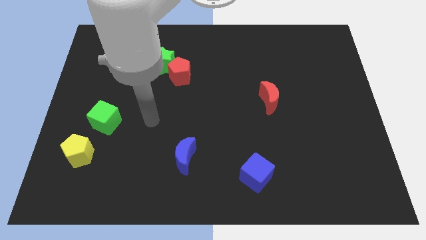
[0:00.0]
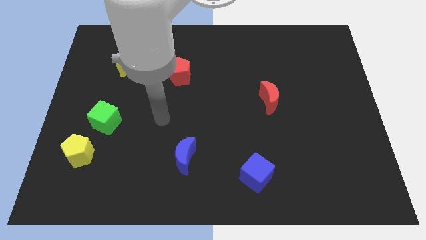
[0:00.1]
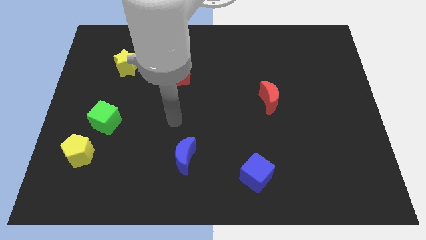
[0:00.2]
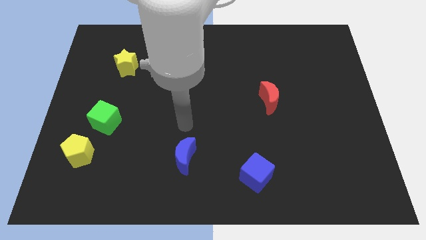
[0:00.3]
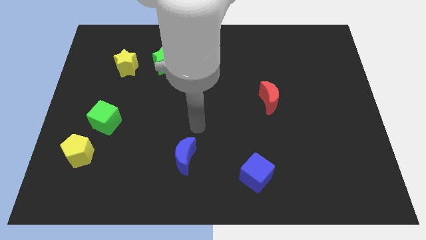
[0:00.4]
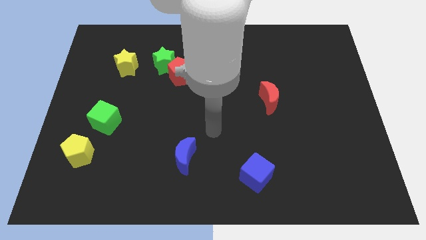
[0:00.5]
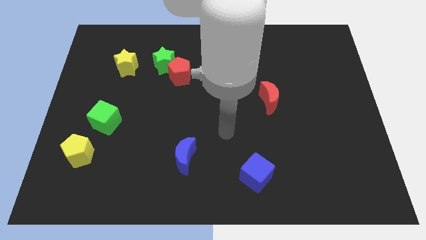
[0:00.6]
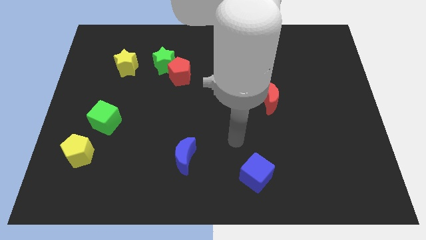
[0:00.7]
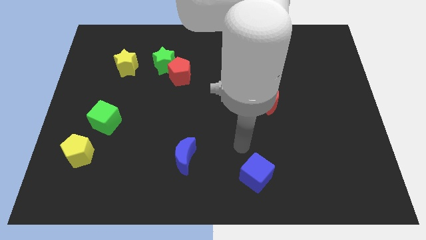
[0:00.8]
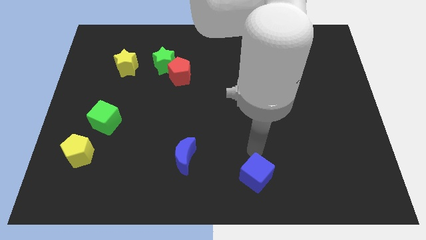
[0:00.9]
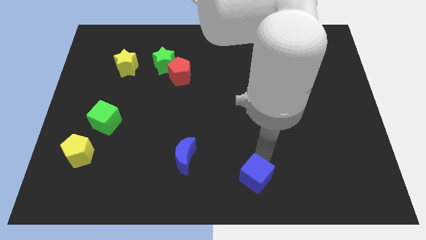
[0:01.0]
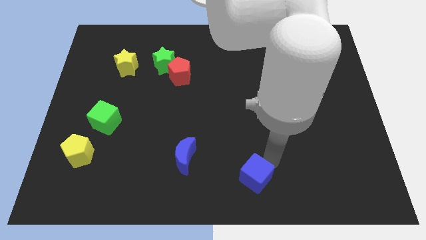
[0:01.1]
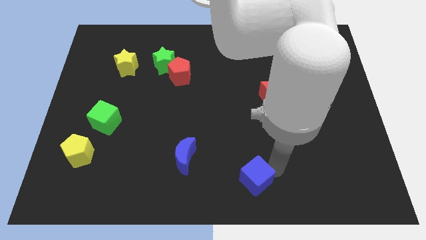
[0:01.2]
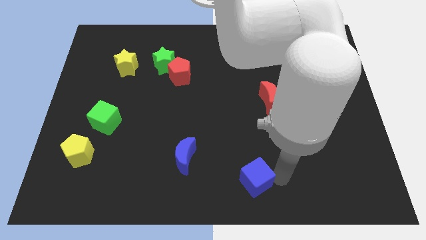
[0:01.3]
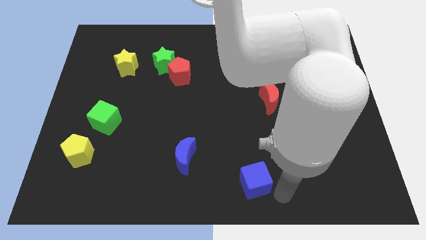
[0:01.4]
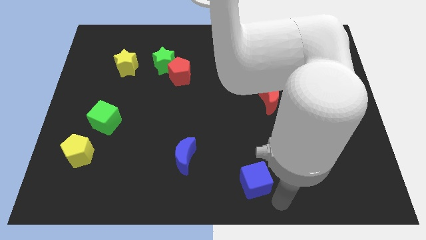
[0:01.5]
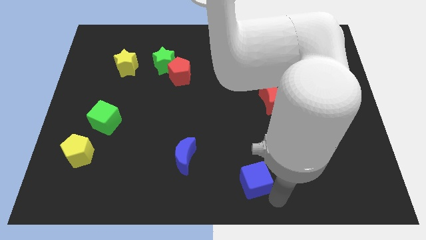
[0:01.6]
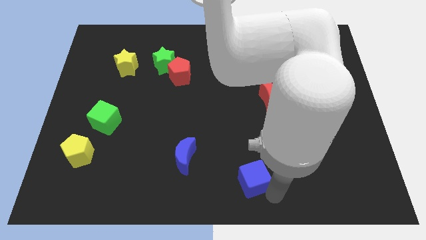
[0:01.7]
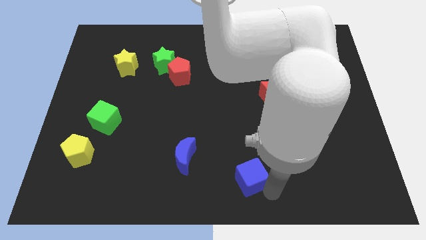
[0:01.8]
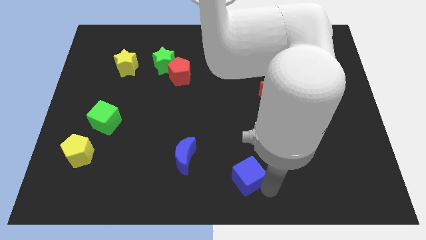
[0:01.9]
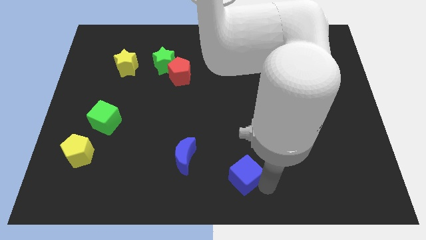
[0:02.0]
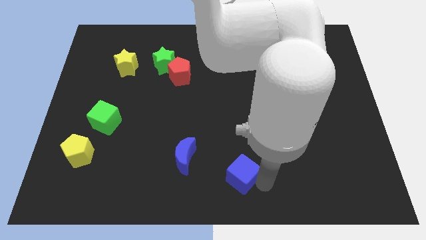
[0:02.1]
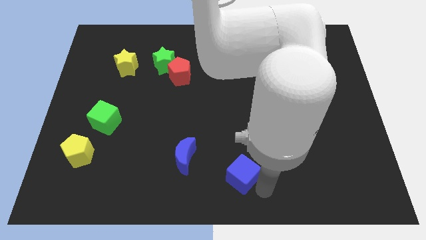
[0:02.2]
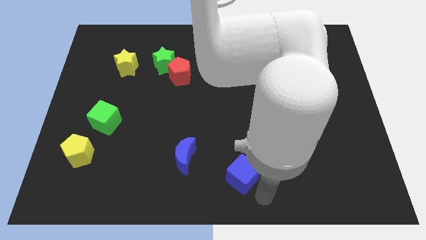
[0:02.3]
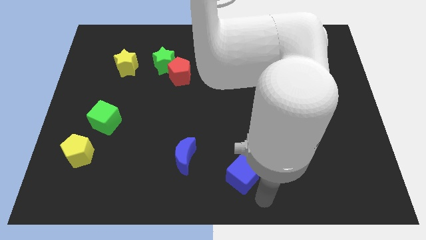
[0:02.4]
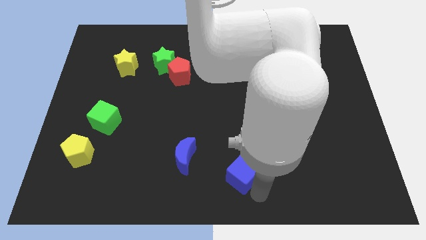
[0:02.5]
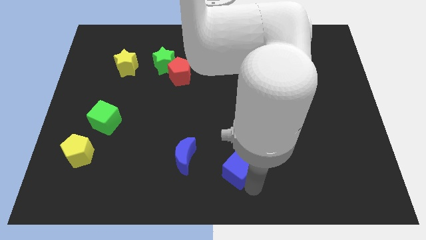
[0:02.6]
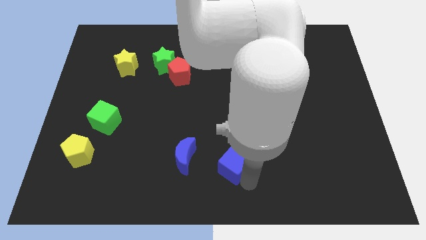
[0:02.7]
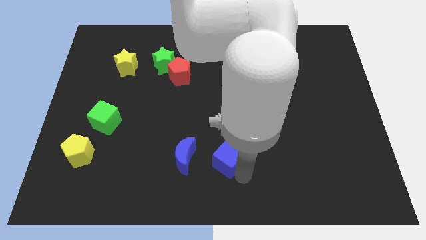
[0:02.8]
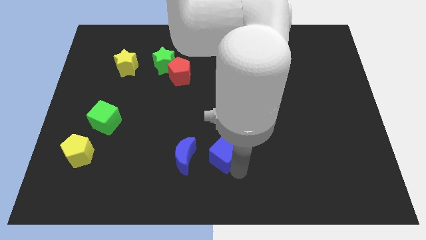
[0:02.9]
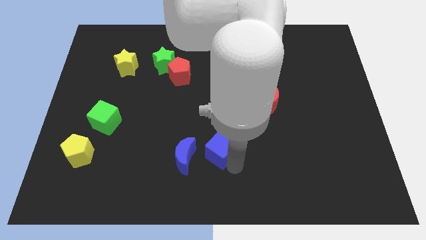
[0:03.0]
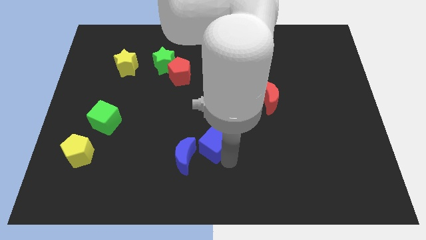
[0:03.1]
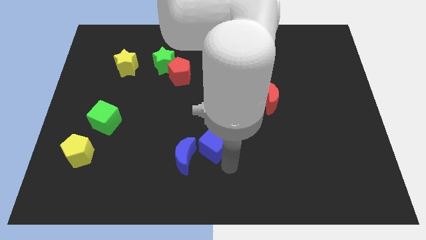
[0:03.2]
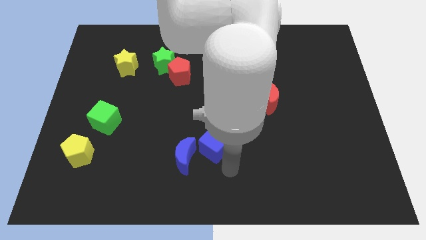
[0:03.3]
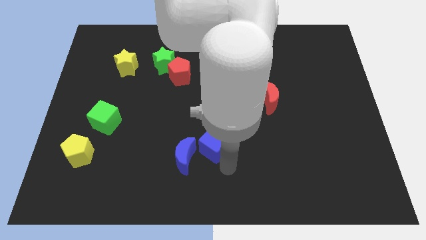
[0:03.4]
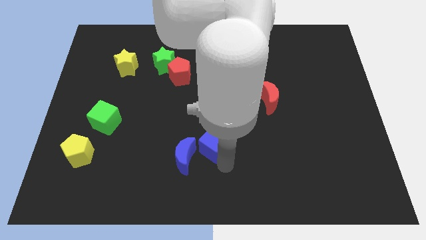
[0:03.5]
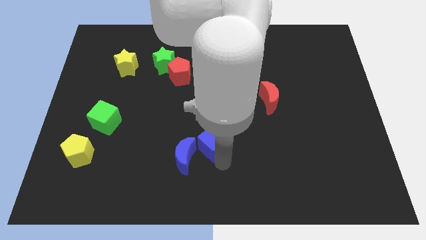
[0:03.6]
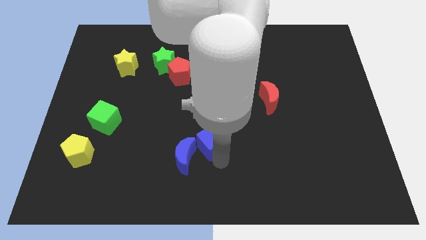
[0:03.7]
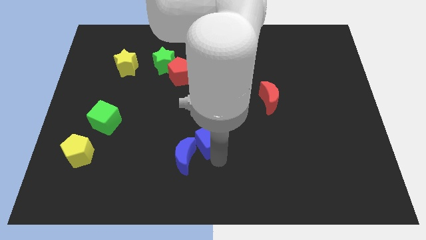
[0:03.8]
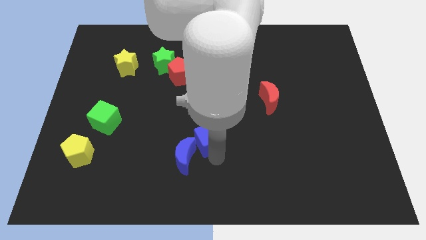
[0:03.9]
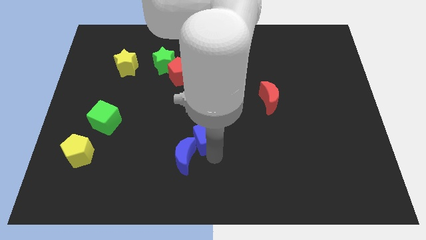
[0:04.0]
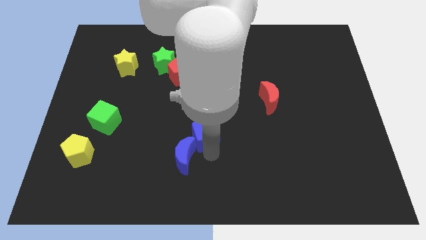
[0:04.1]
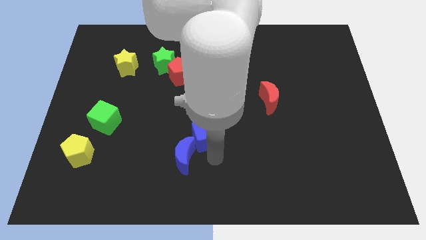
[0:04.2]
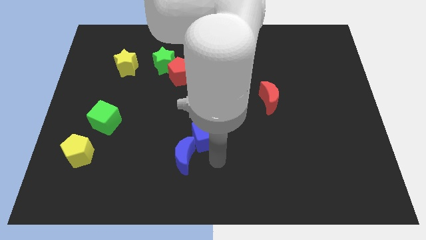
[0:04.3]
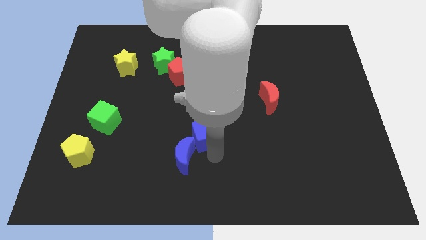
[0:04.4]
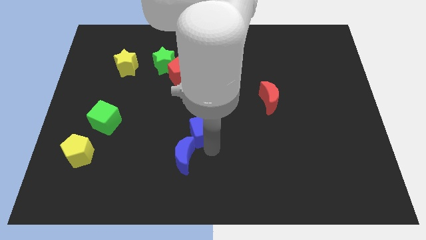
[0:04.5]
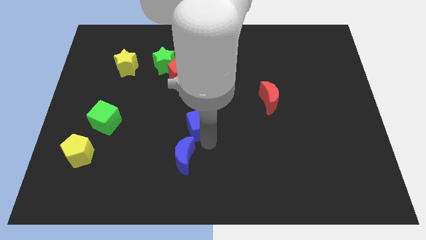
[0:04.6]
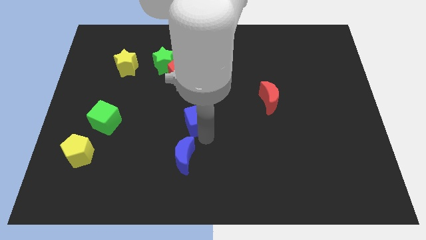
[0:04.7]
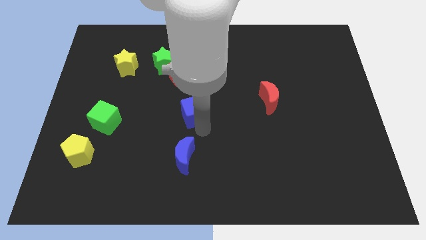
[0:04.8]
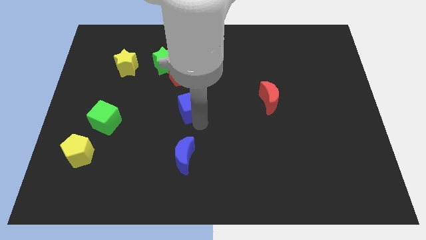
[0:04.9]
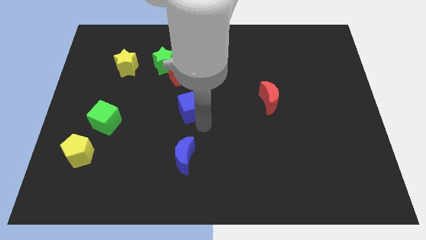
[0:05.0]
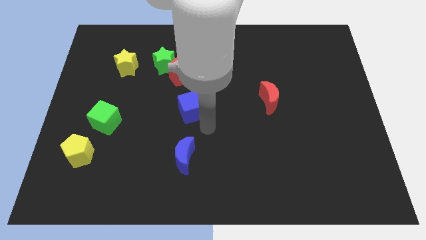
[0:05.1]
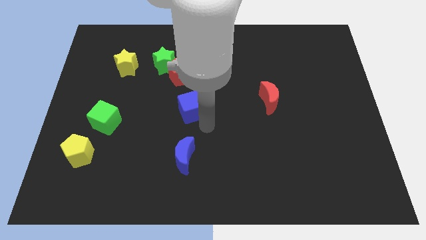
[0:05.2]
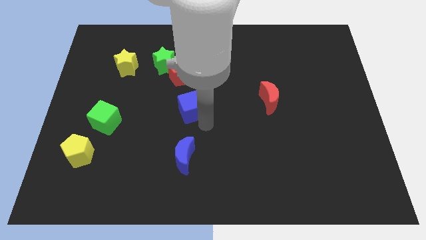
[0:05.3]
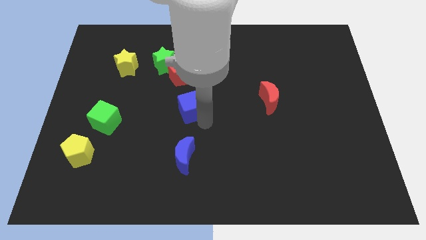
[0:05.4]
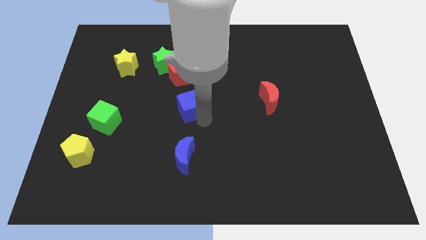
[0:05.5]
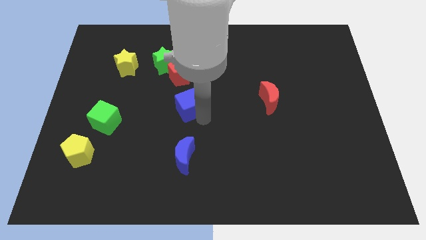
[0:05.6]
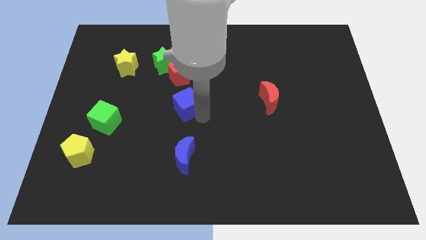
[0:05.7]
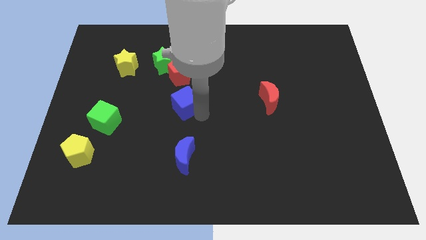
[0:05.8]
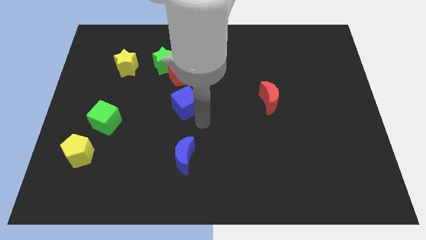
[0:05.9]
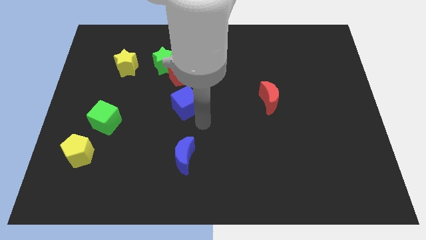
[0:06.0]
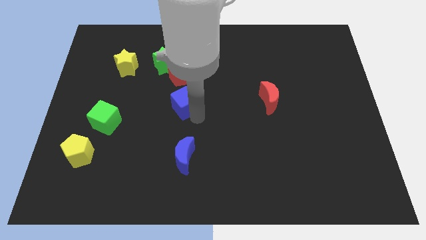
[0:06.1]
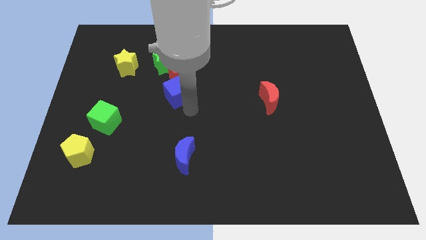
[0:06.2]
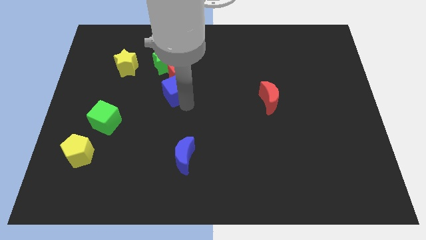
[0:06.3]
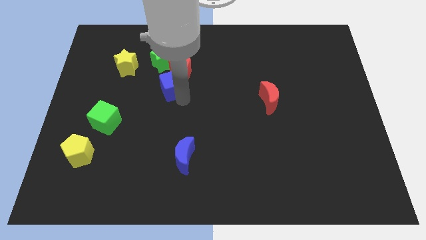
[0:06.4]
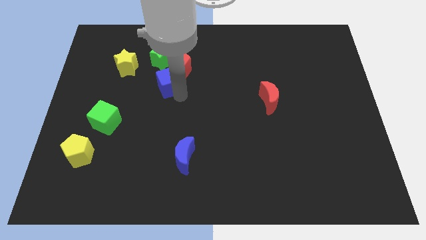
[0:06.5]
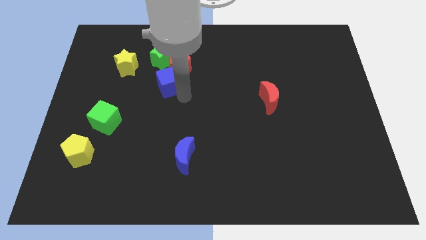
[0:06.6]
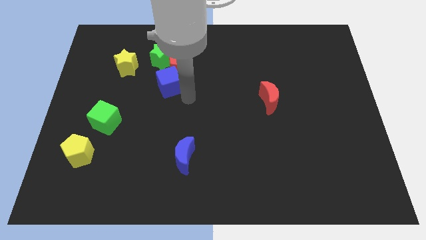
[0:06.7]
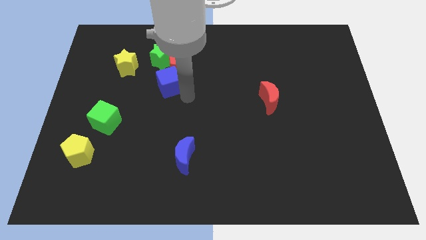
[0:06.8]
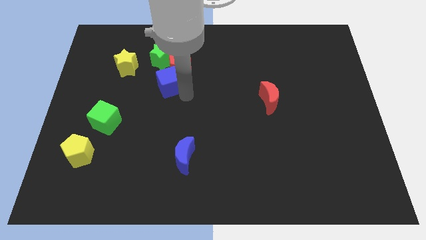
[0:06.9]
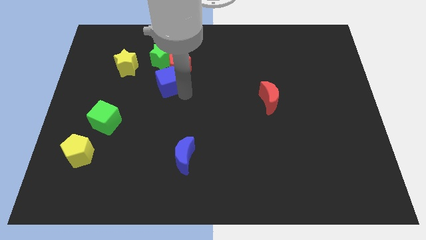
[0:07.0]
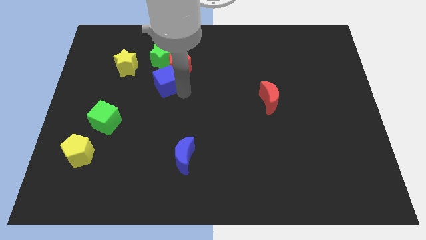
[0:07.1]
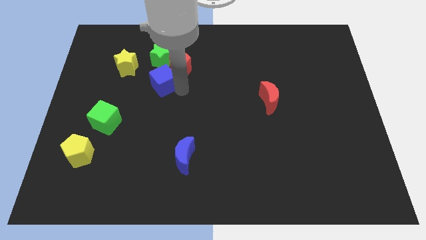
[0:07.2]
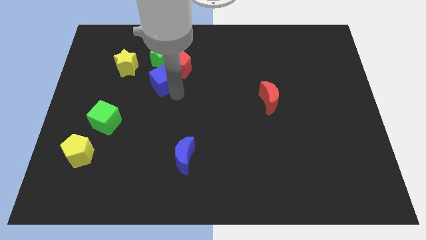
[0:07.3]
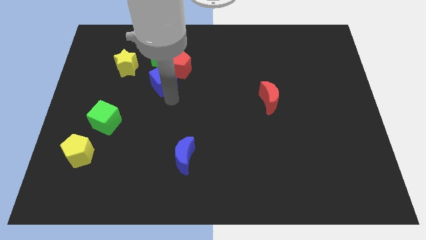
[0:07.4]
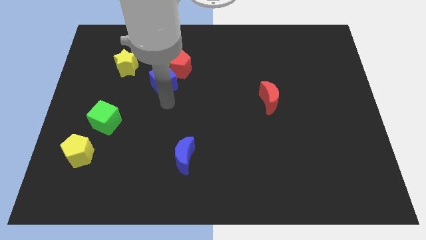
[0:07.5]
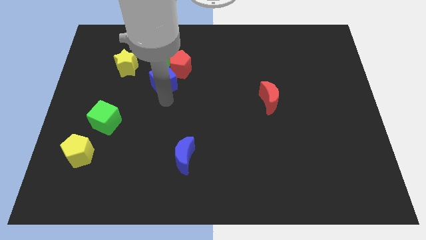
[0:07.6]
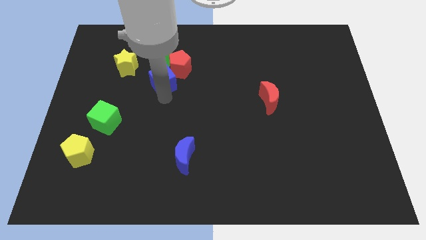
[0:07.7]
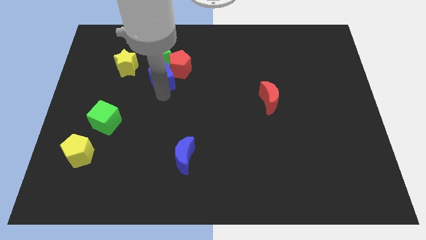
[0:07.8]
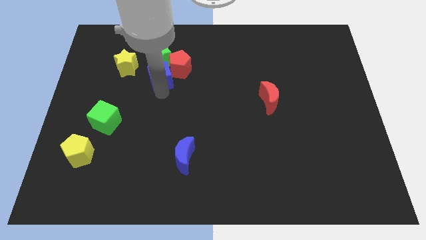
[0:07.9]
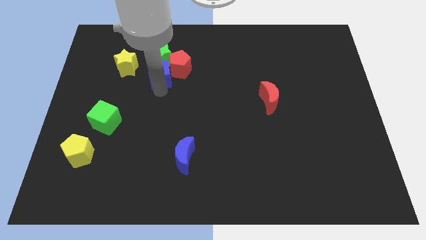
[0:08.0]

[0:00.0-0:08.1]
put the blue cube next to the green star
